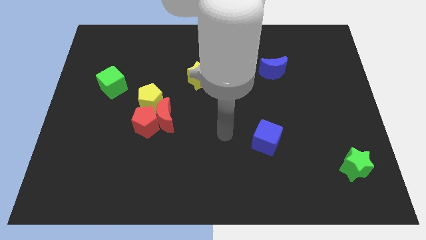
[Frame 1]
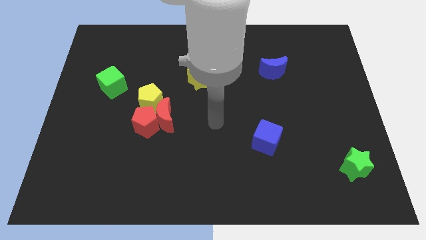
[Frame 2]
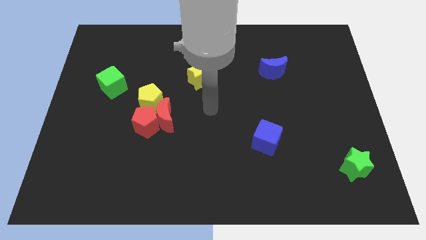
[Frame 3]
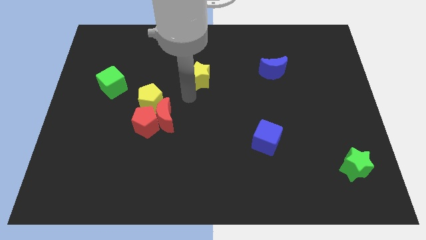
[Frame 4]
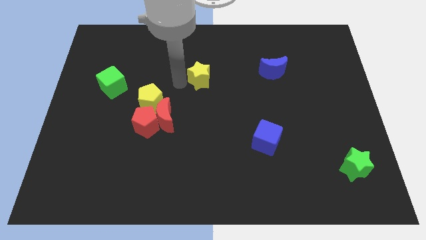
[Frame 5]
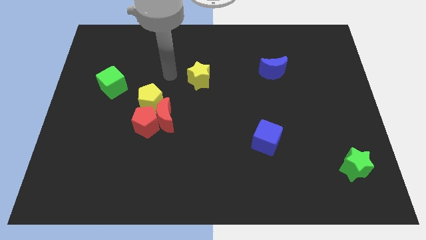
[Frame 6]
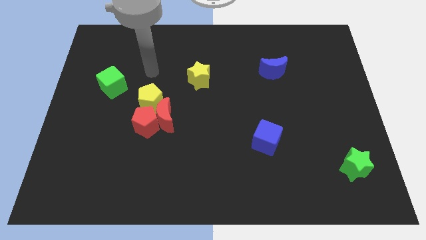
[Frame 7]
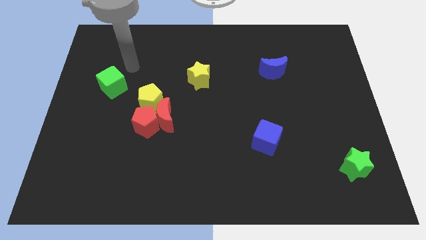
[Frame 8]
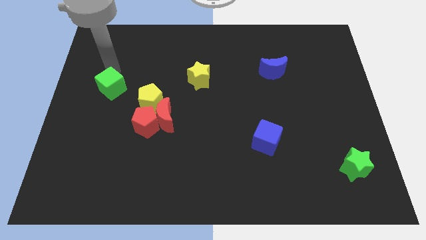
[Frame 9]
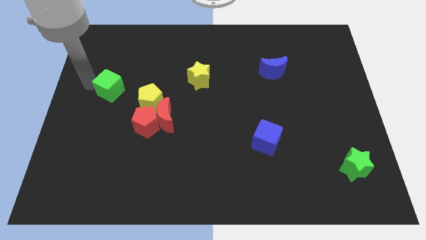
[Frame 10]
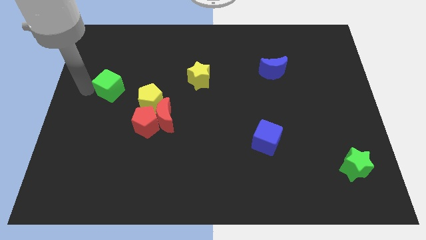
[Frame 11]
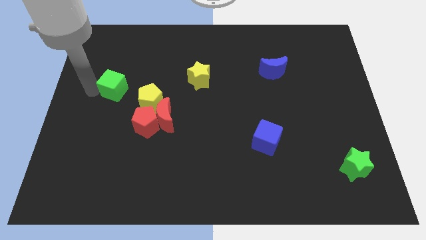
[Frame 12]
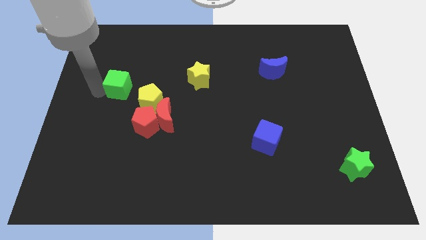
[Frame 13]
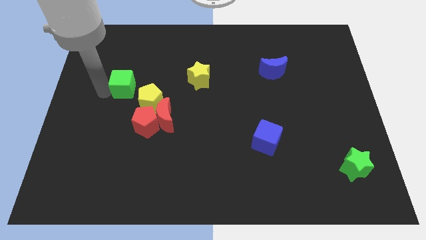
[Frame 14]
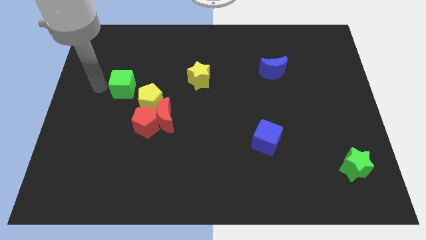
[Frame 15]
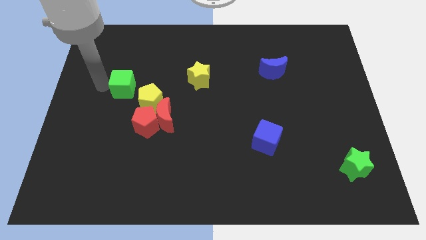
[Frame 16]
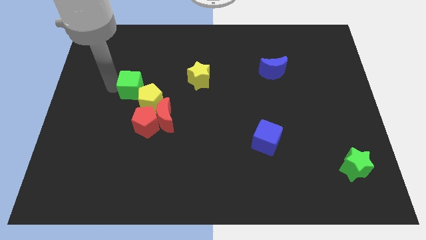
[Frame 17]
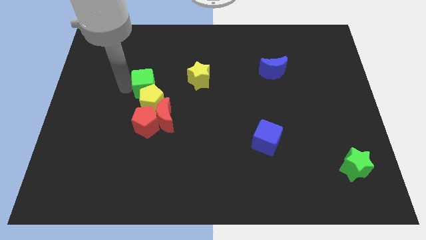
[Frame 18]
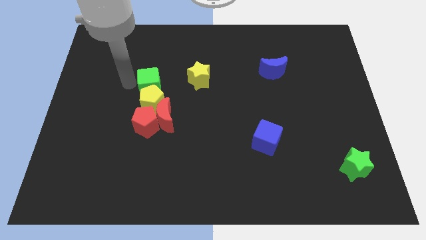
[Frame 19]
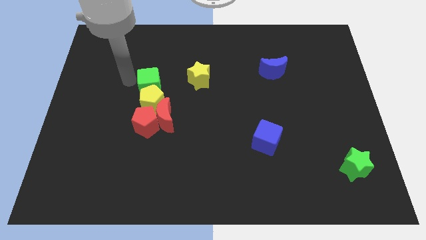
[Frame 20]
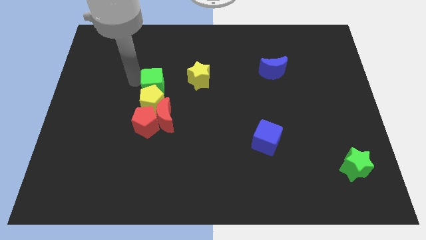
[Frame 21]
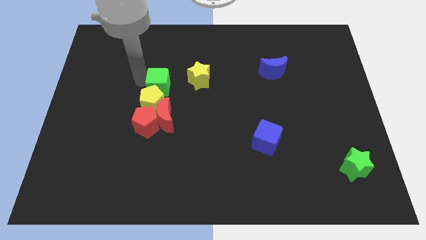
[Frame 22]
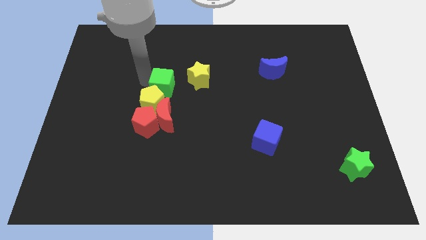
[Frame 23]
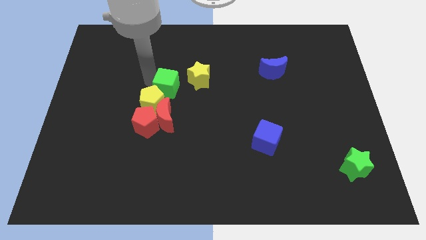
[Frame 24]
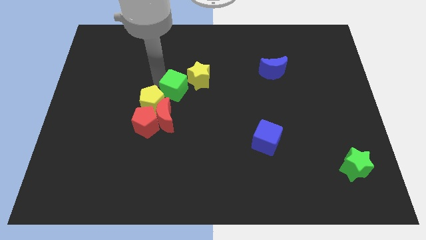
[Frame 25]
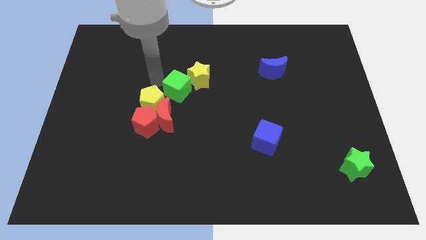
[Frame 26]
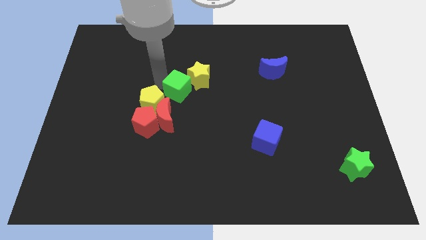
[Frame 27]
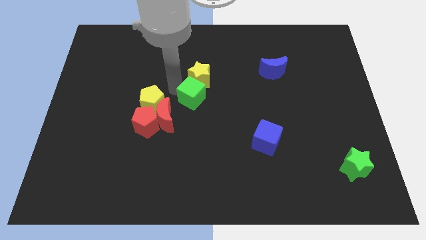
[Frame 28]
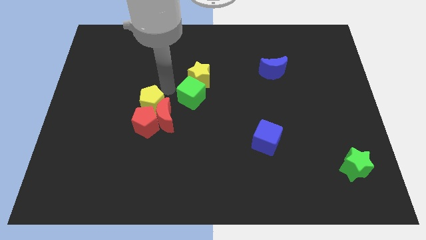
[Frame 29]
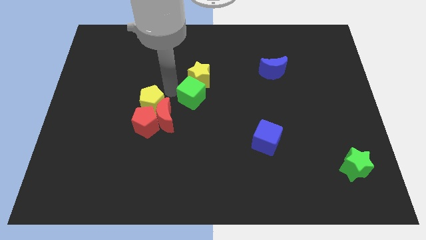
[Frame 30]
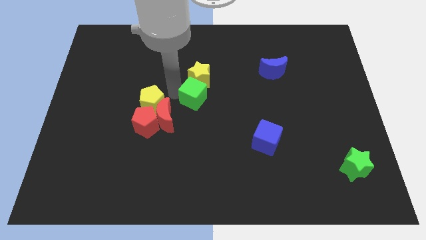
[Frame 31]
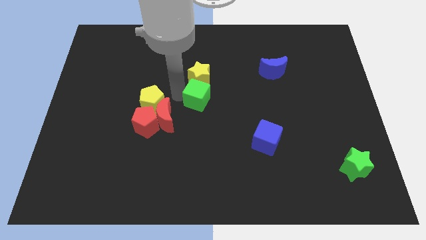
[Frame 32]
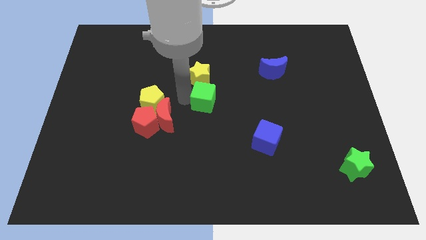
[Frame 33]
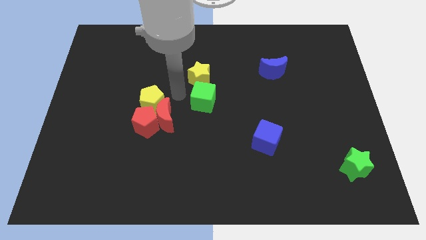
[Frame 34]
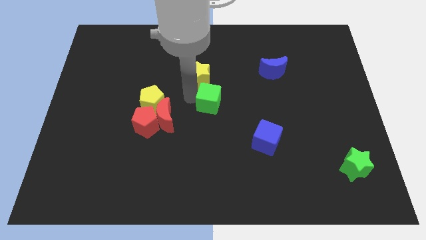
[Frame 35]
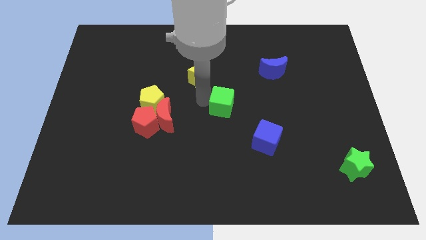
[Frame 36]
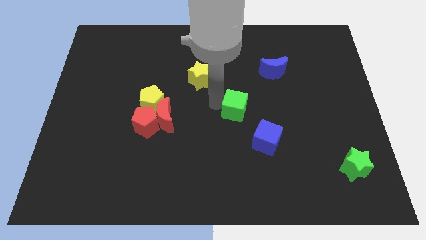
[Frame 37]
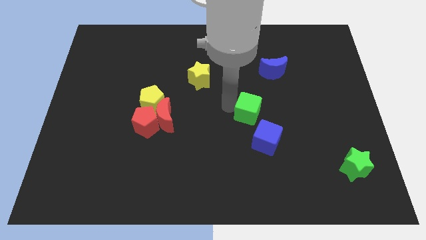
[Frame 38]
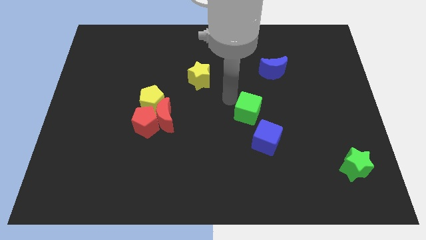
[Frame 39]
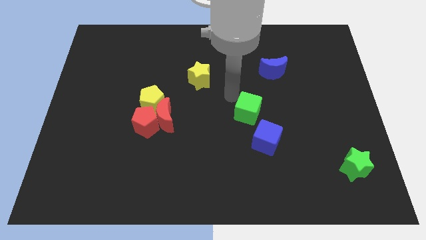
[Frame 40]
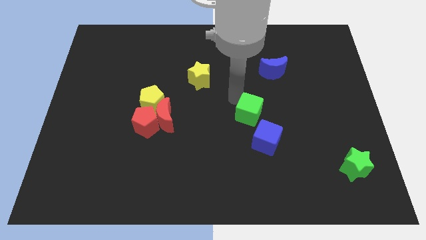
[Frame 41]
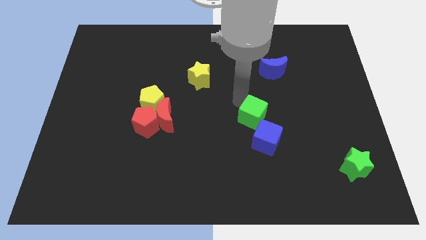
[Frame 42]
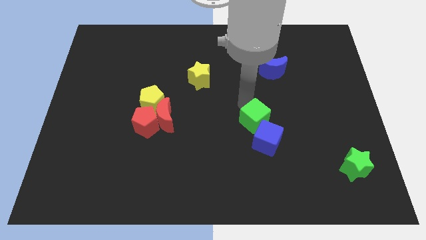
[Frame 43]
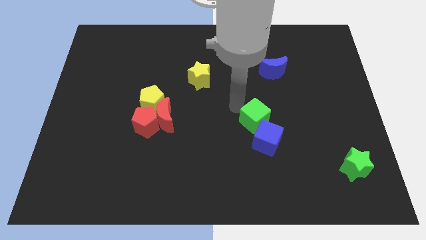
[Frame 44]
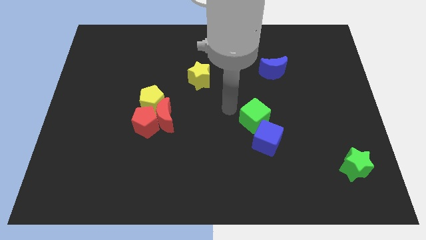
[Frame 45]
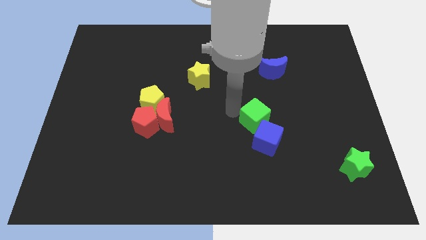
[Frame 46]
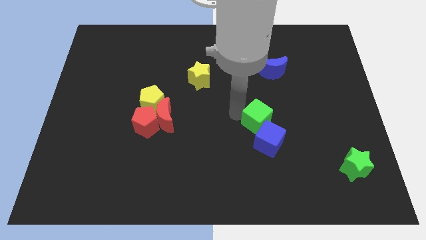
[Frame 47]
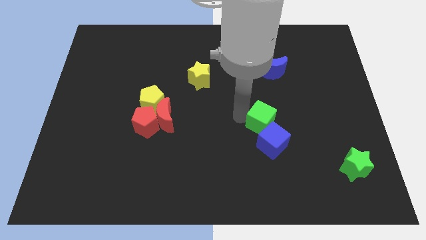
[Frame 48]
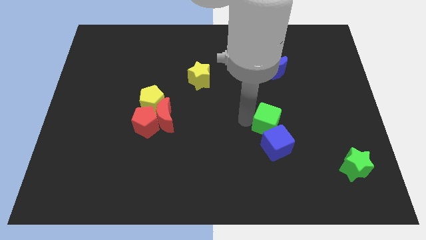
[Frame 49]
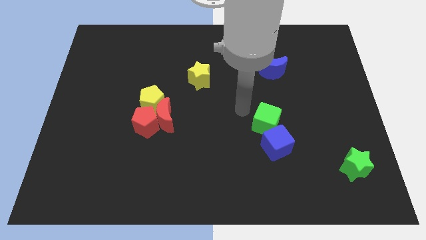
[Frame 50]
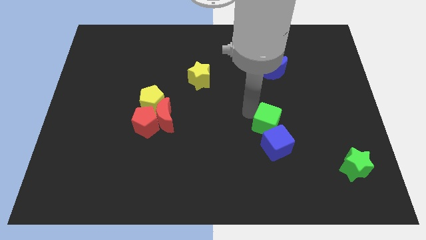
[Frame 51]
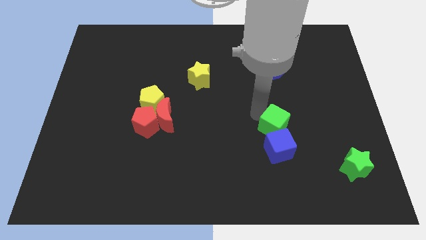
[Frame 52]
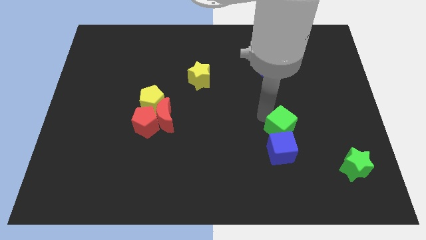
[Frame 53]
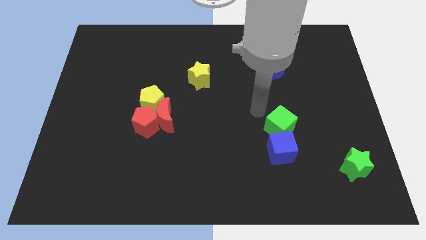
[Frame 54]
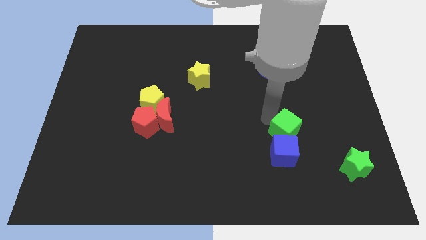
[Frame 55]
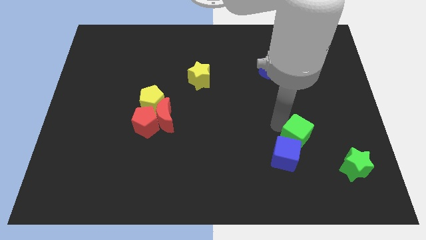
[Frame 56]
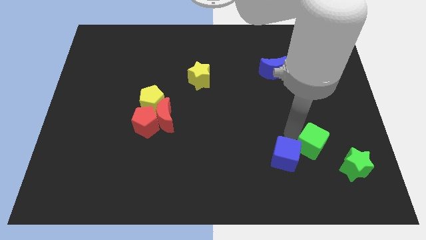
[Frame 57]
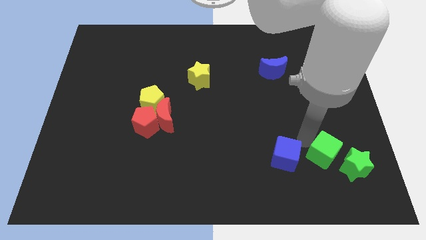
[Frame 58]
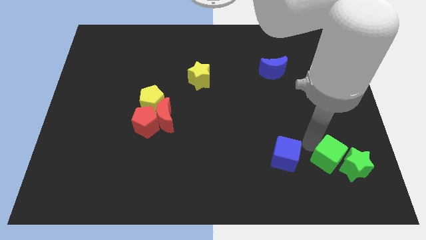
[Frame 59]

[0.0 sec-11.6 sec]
move the green cube close to the green star

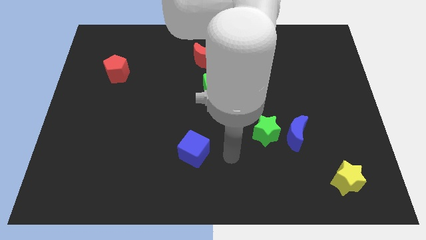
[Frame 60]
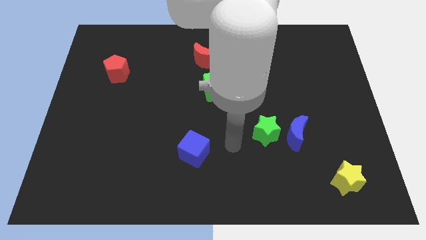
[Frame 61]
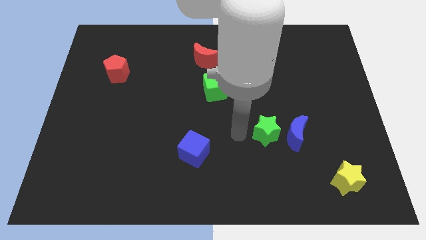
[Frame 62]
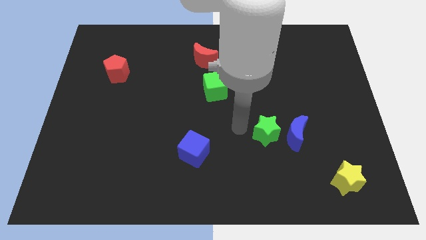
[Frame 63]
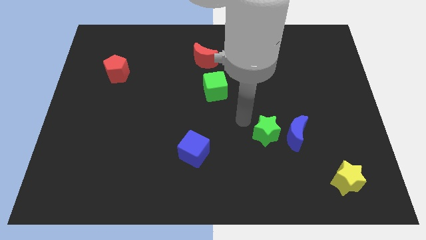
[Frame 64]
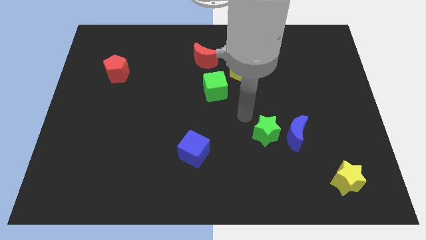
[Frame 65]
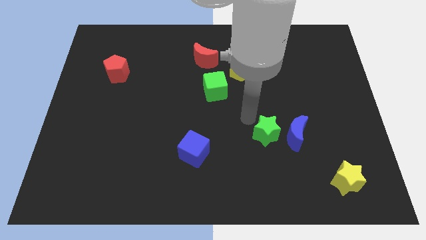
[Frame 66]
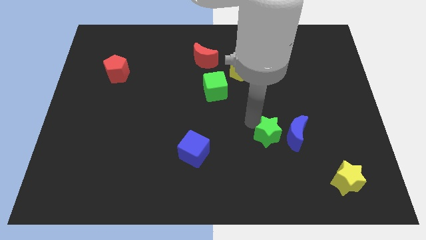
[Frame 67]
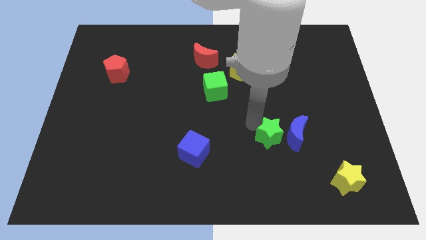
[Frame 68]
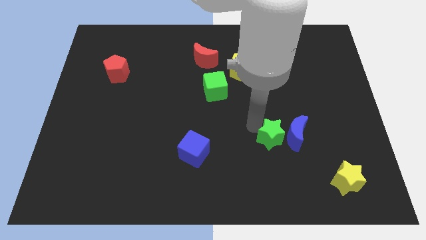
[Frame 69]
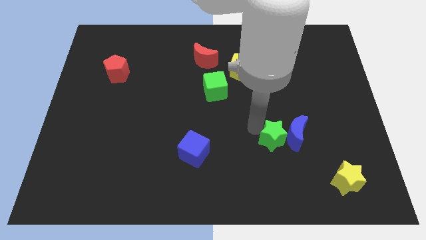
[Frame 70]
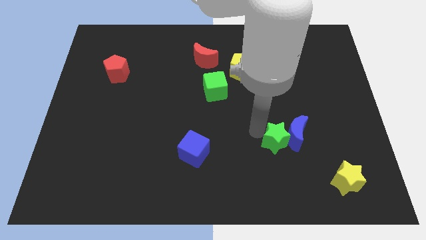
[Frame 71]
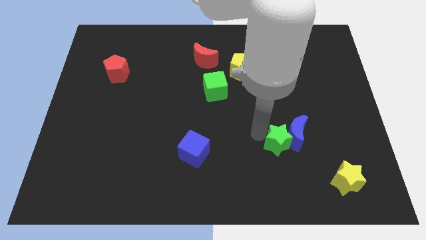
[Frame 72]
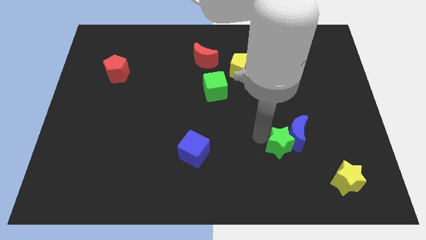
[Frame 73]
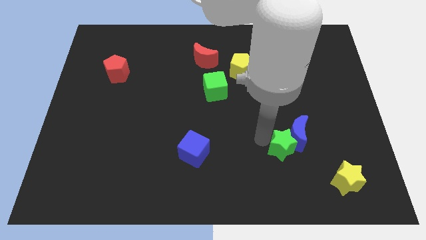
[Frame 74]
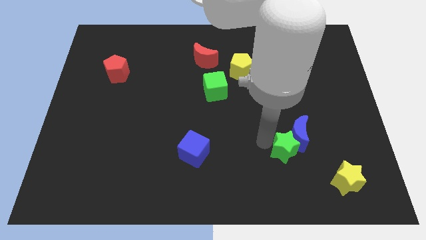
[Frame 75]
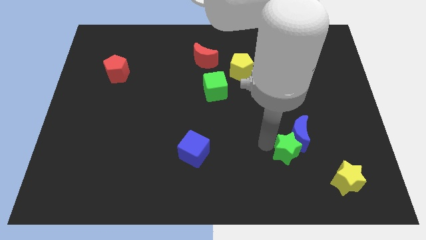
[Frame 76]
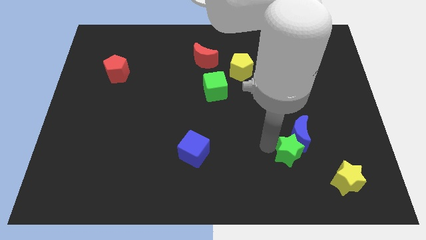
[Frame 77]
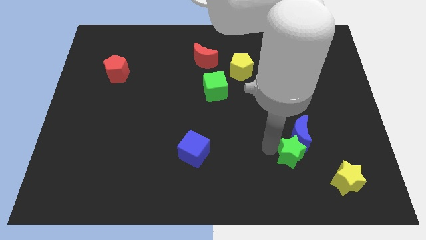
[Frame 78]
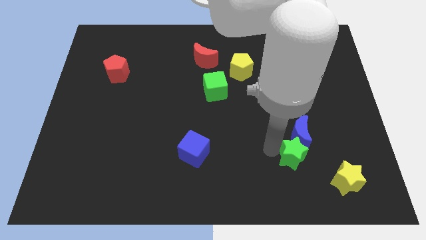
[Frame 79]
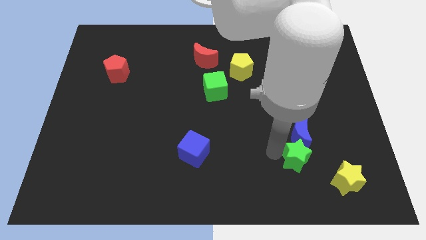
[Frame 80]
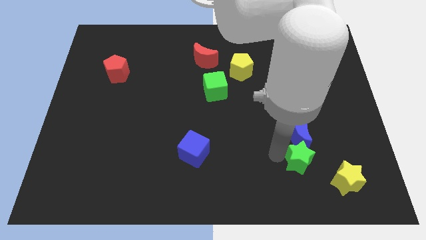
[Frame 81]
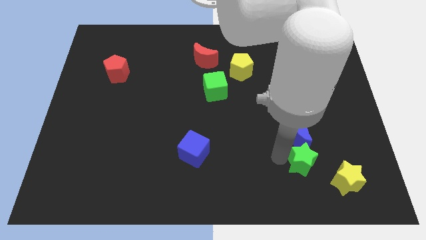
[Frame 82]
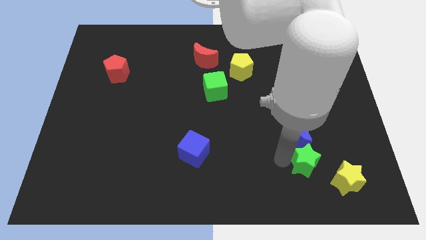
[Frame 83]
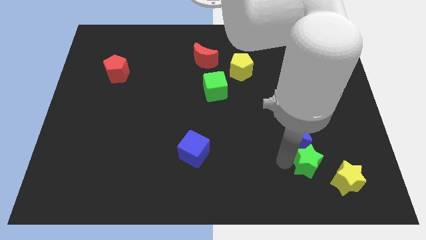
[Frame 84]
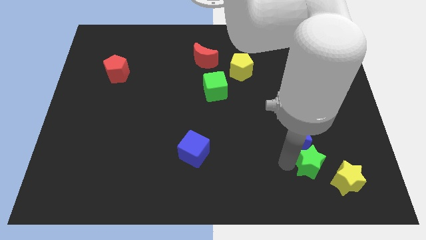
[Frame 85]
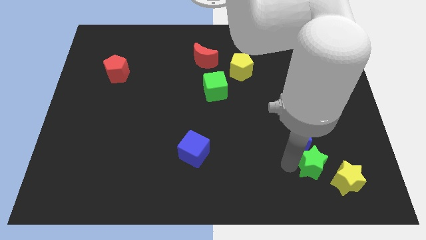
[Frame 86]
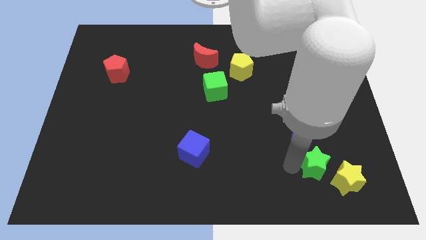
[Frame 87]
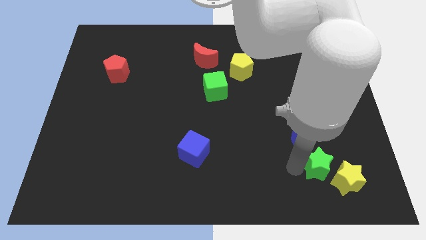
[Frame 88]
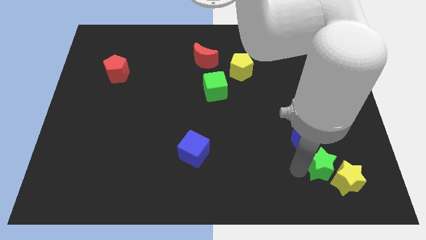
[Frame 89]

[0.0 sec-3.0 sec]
slide the green star next to the yellow star
